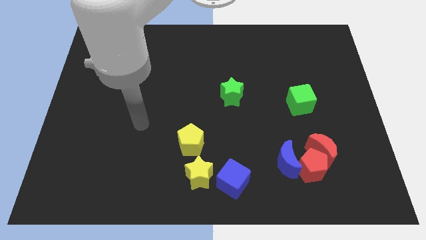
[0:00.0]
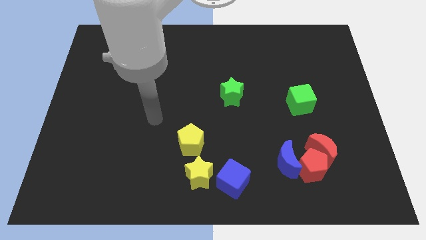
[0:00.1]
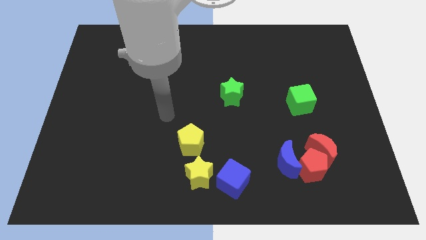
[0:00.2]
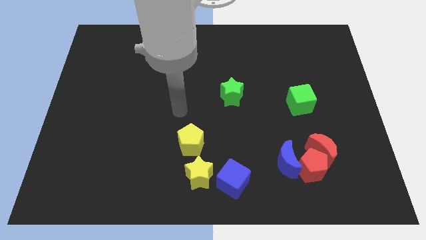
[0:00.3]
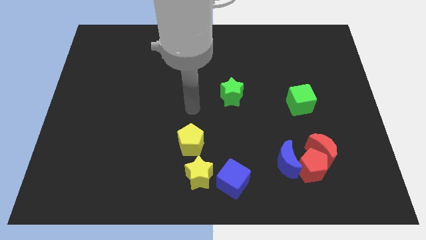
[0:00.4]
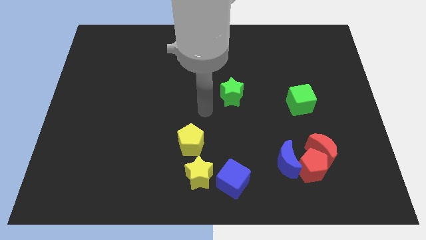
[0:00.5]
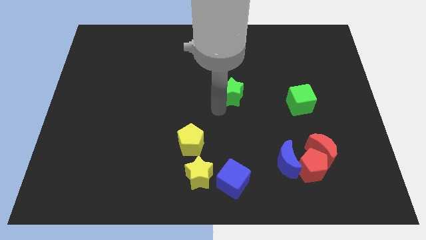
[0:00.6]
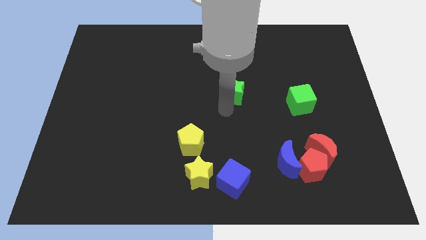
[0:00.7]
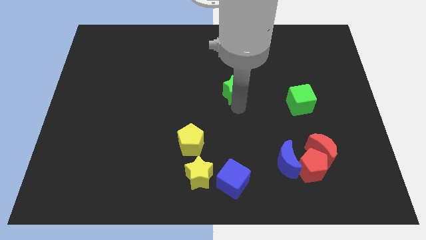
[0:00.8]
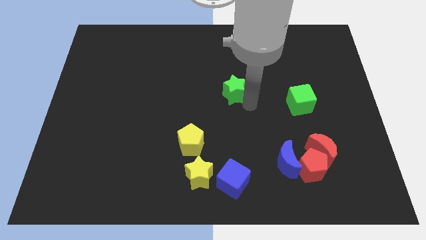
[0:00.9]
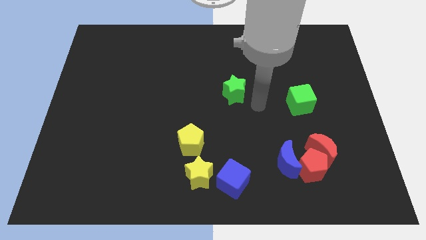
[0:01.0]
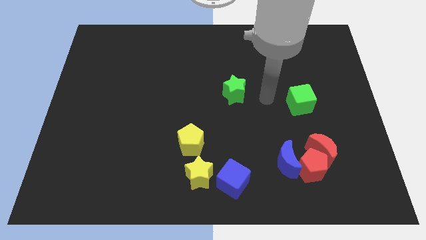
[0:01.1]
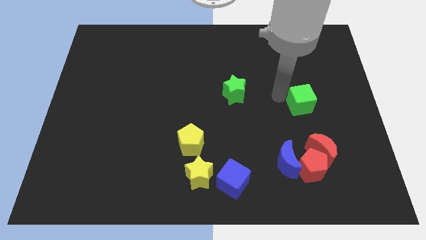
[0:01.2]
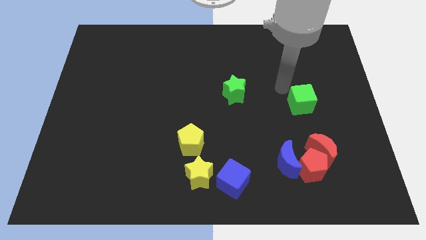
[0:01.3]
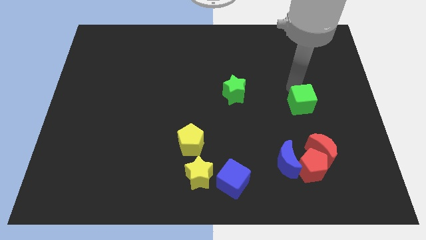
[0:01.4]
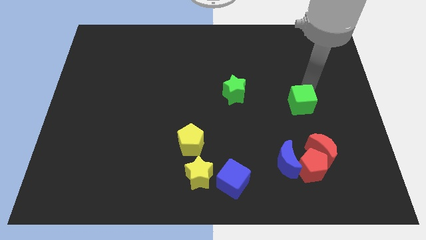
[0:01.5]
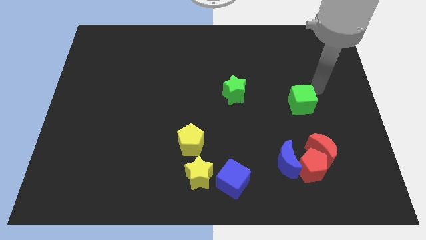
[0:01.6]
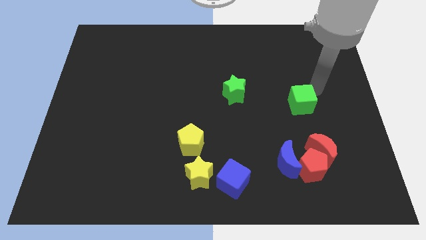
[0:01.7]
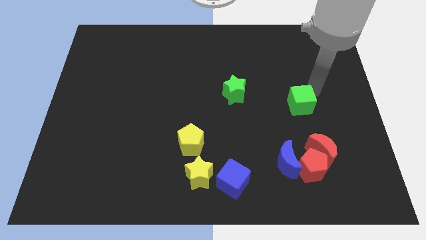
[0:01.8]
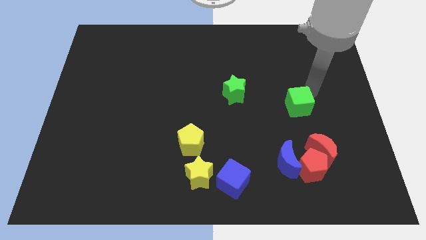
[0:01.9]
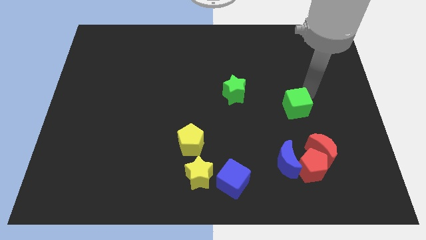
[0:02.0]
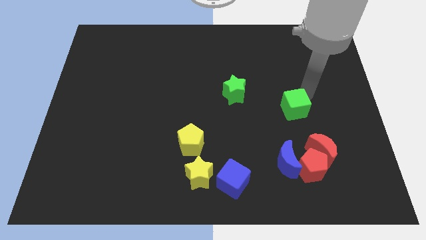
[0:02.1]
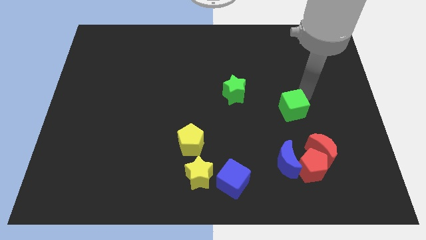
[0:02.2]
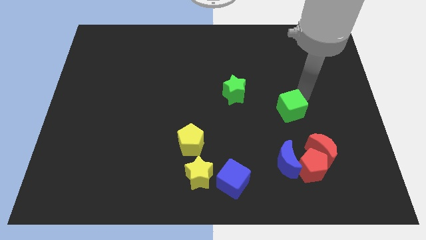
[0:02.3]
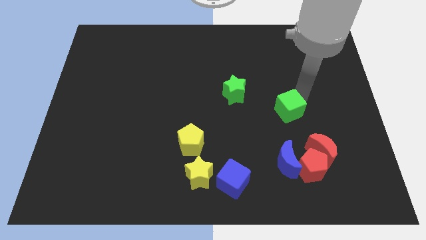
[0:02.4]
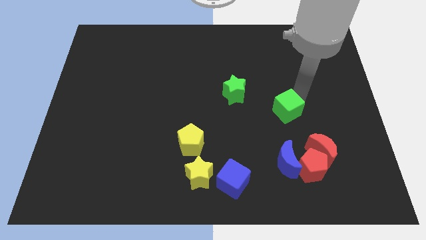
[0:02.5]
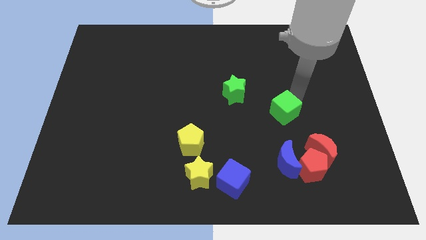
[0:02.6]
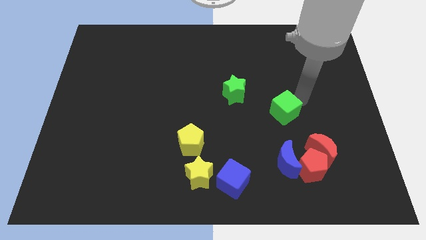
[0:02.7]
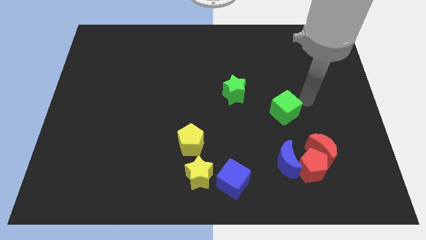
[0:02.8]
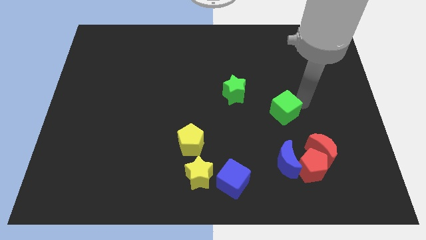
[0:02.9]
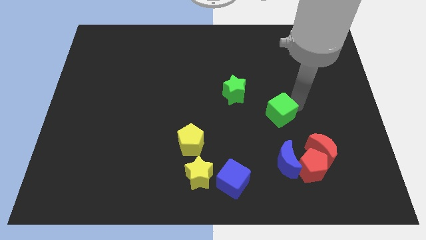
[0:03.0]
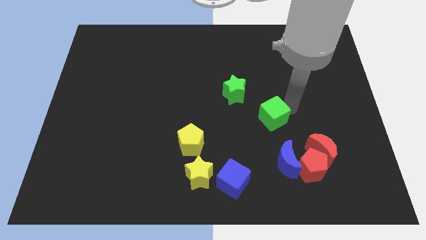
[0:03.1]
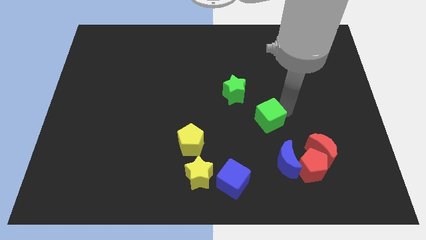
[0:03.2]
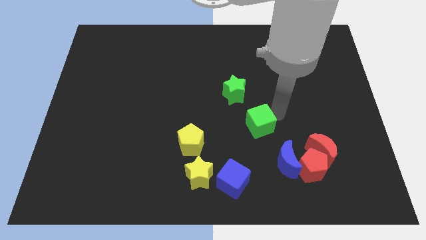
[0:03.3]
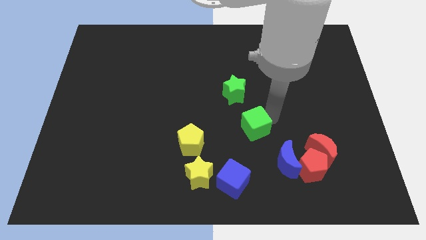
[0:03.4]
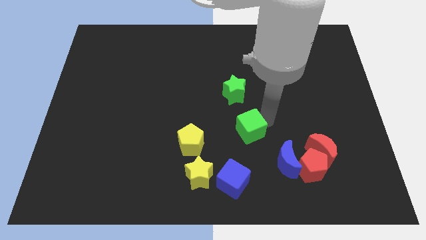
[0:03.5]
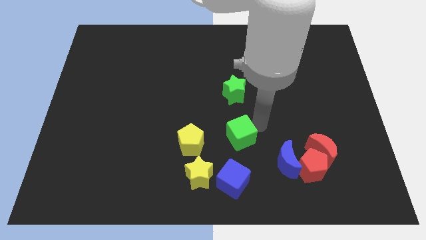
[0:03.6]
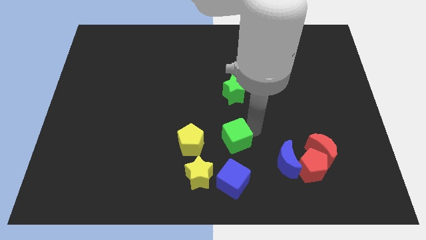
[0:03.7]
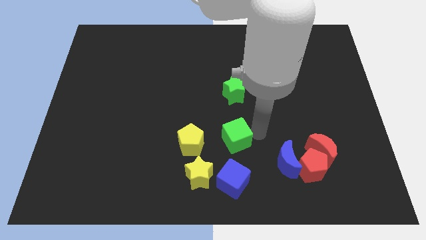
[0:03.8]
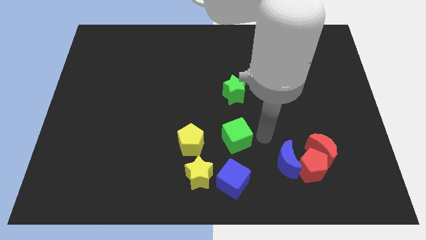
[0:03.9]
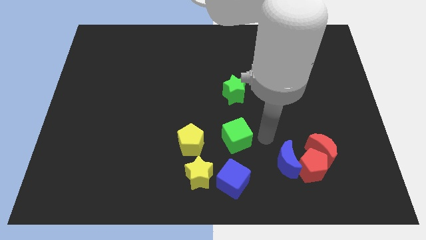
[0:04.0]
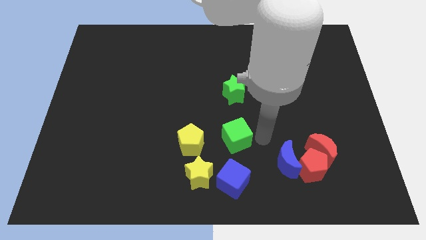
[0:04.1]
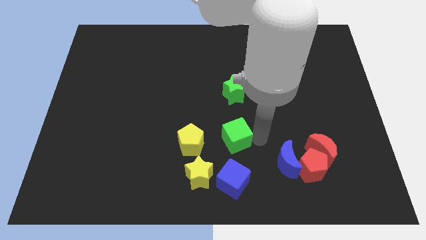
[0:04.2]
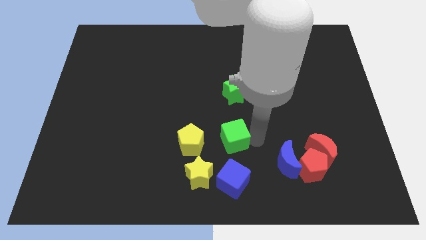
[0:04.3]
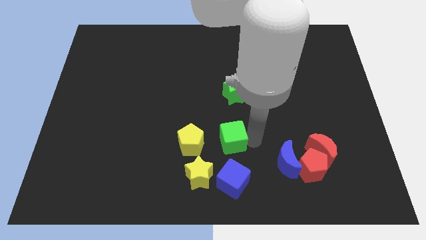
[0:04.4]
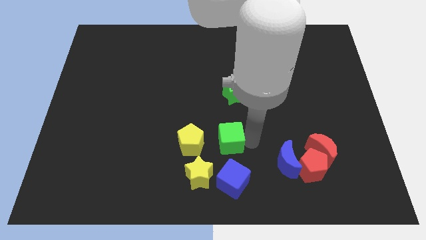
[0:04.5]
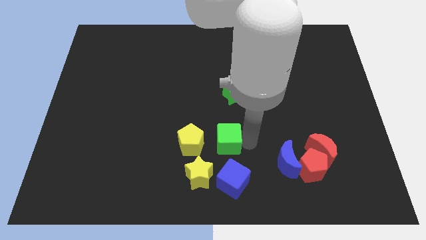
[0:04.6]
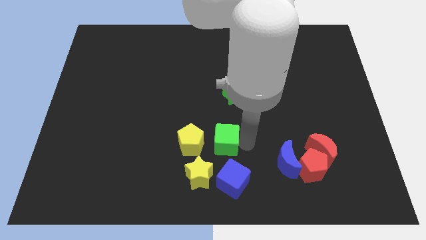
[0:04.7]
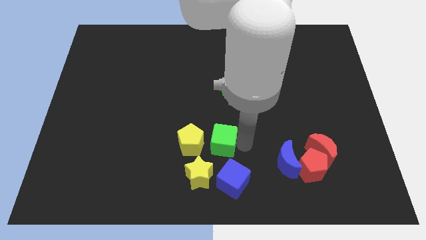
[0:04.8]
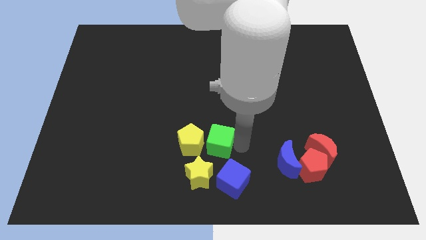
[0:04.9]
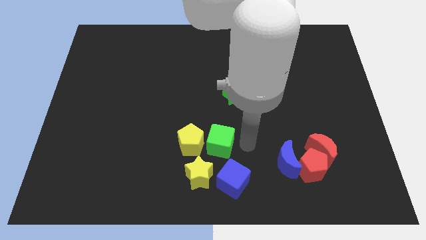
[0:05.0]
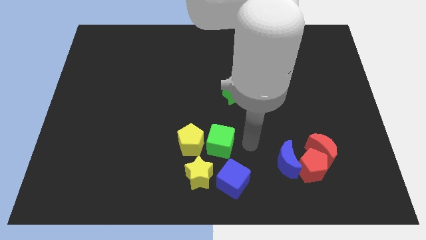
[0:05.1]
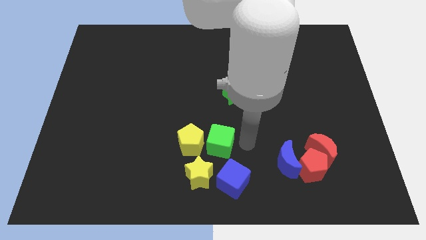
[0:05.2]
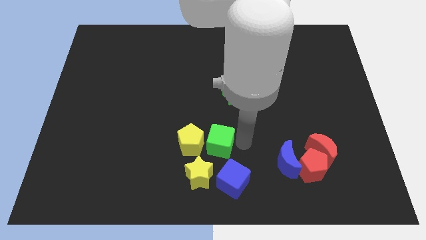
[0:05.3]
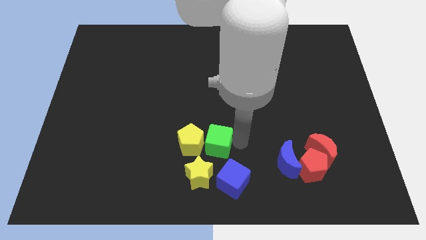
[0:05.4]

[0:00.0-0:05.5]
slide the green cube close to the yellow pentagon

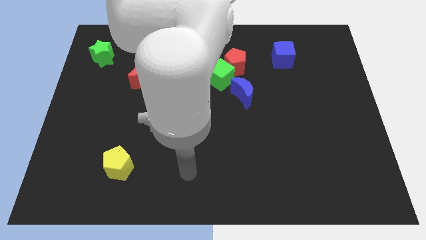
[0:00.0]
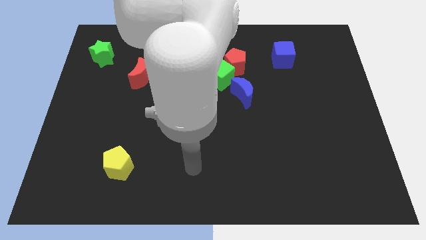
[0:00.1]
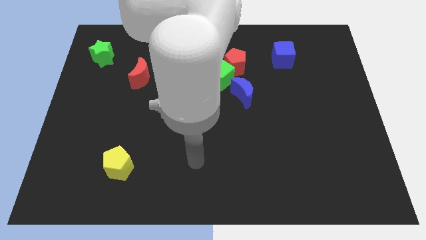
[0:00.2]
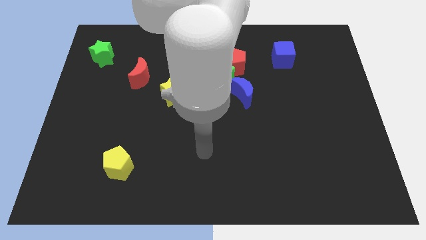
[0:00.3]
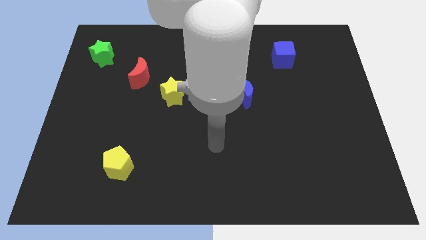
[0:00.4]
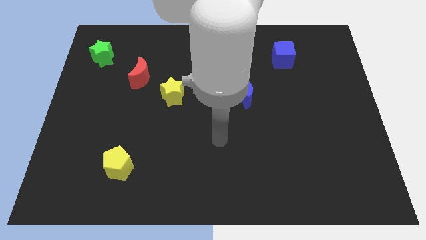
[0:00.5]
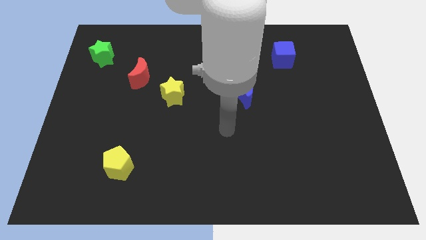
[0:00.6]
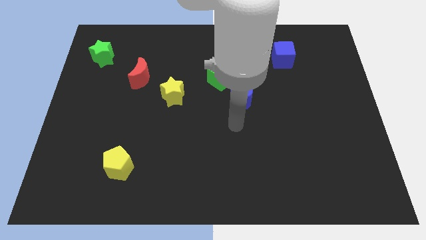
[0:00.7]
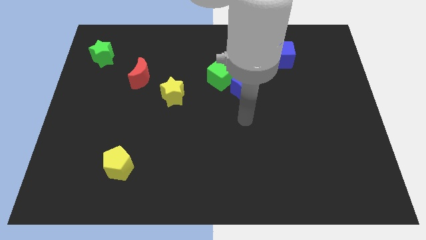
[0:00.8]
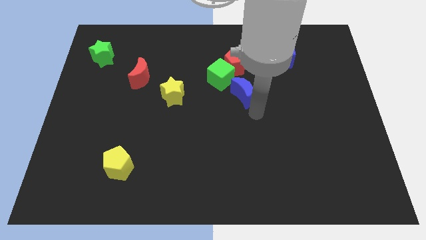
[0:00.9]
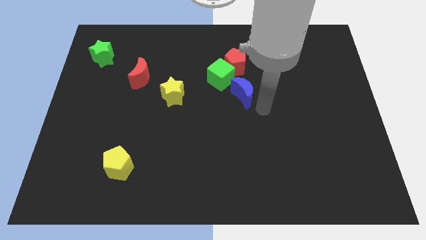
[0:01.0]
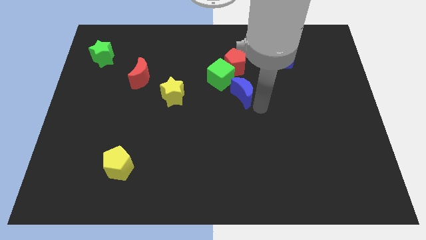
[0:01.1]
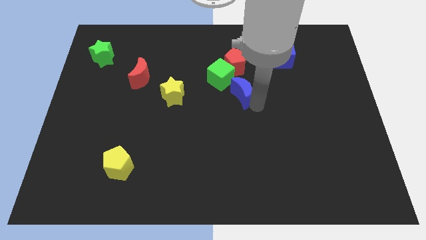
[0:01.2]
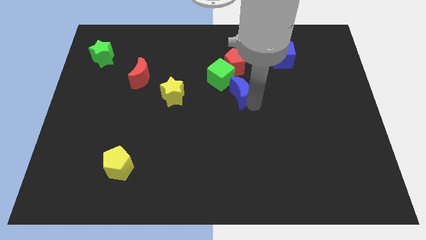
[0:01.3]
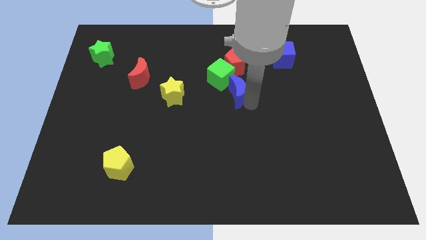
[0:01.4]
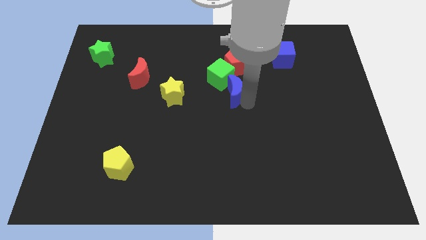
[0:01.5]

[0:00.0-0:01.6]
move the blue moon next to the green cube

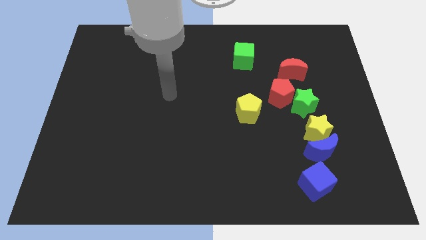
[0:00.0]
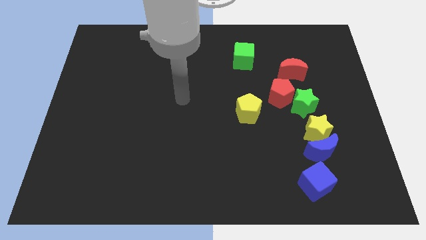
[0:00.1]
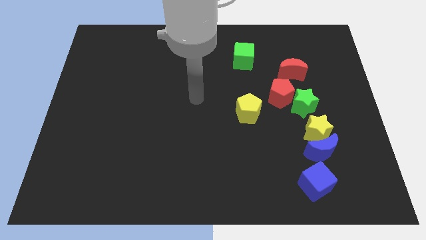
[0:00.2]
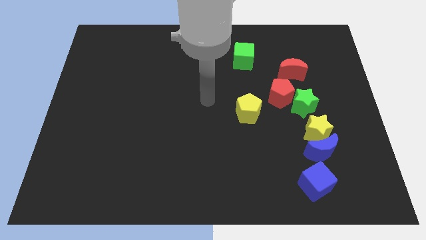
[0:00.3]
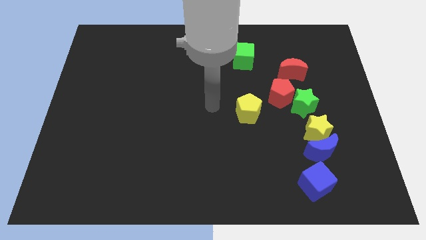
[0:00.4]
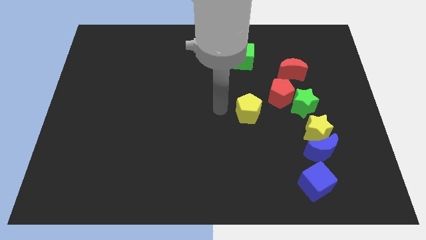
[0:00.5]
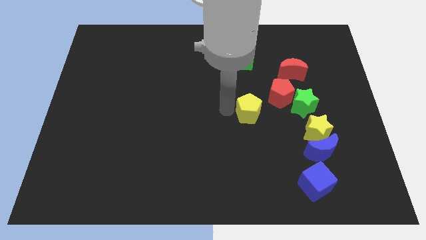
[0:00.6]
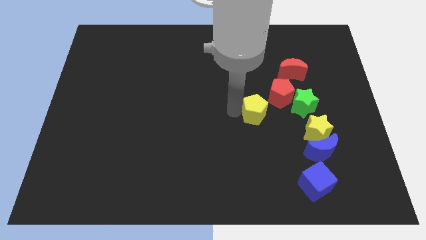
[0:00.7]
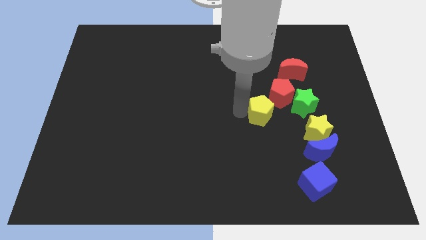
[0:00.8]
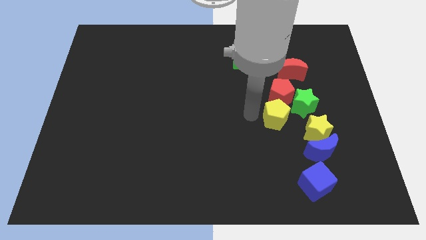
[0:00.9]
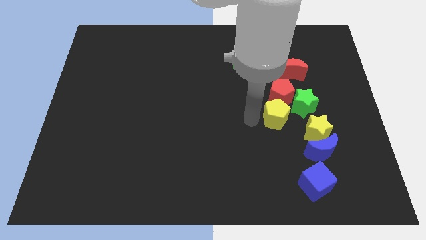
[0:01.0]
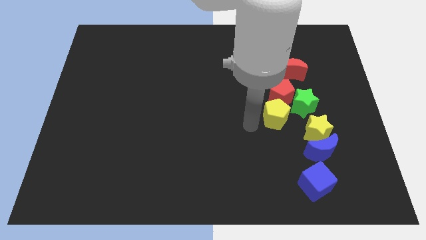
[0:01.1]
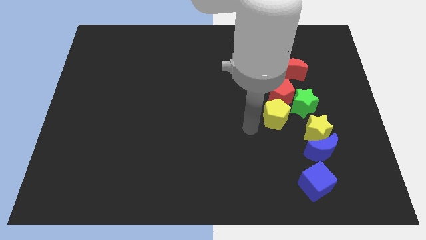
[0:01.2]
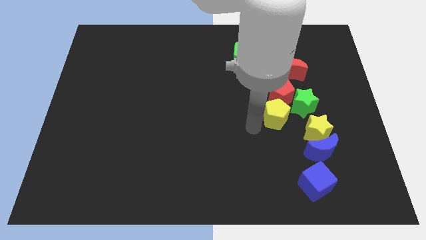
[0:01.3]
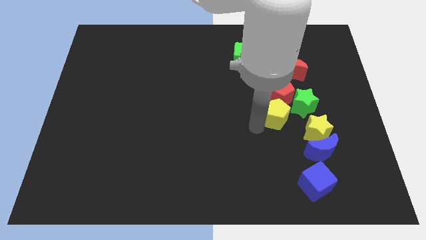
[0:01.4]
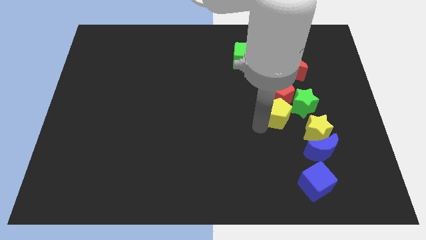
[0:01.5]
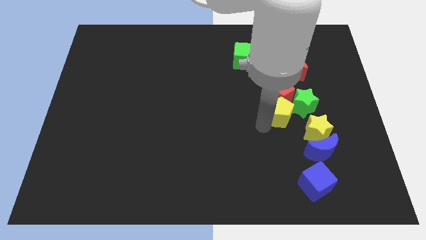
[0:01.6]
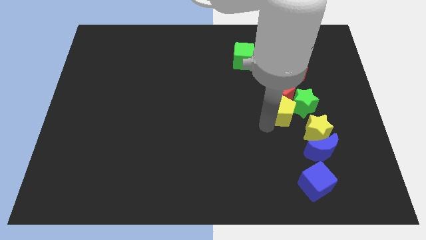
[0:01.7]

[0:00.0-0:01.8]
push the yellow pentagon next to the green star
